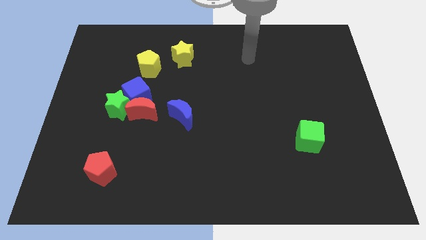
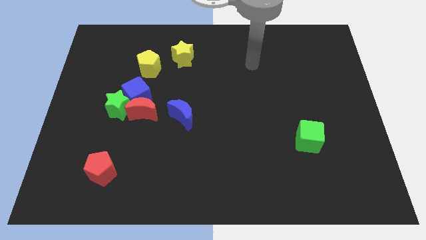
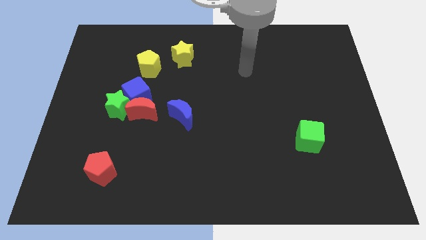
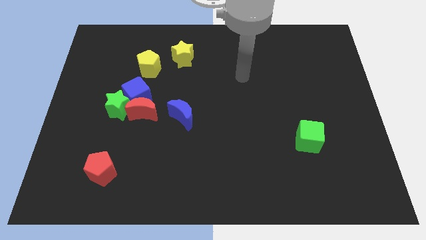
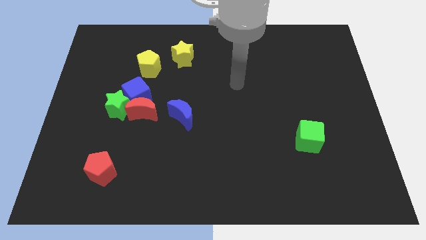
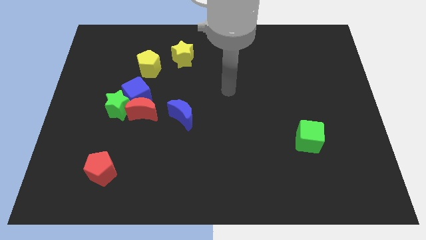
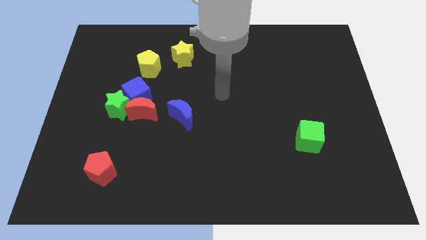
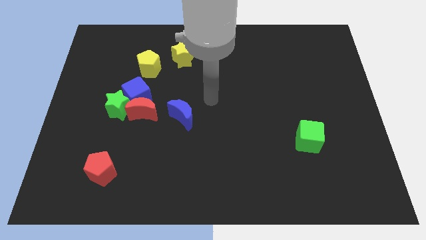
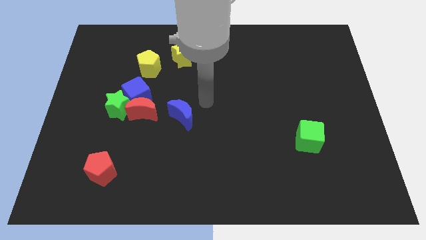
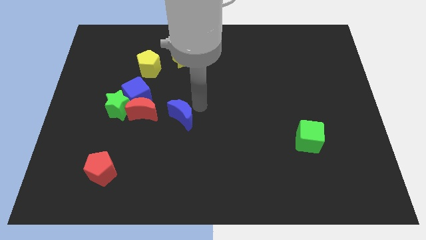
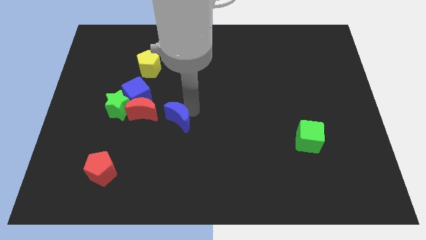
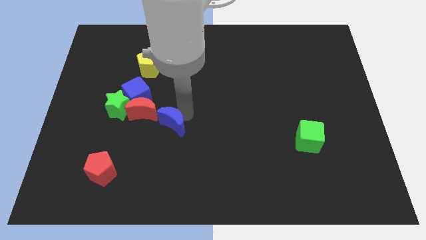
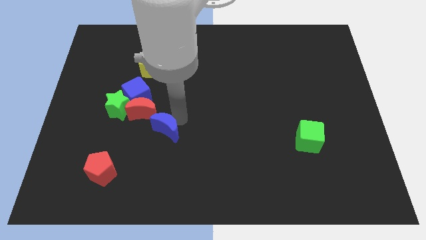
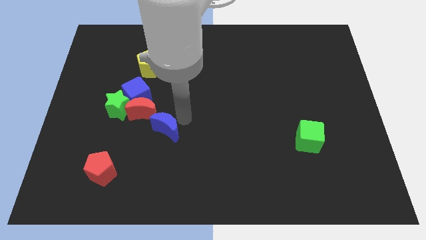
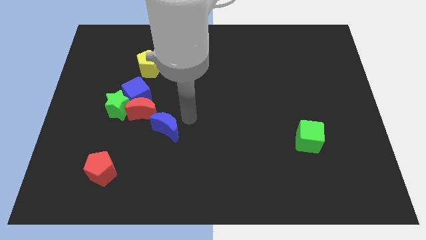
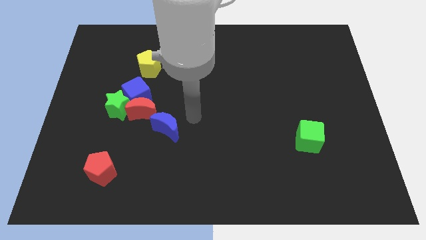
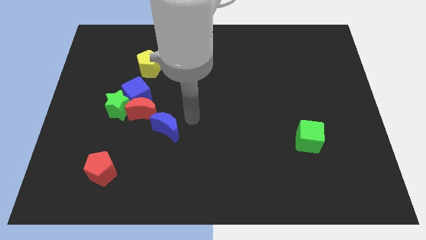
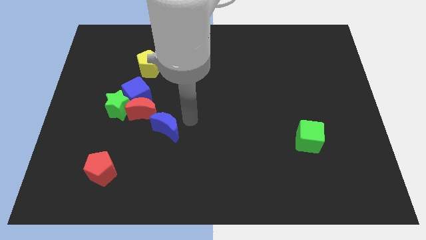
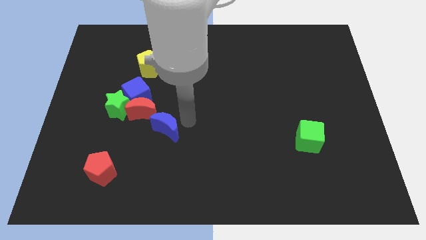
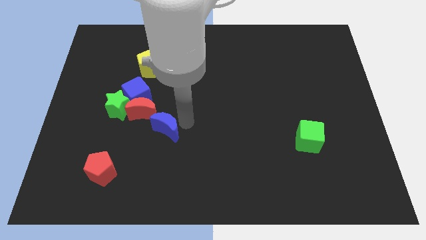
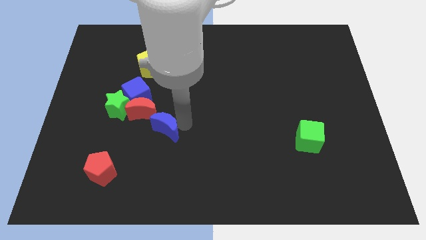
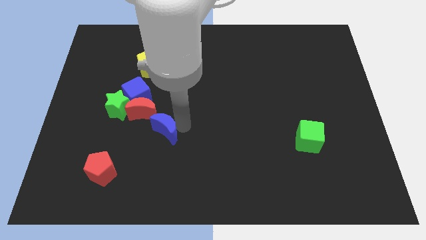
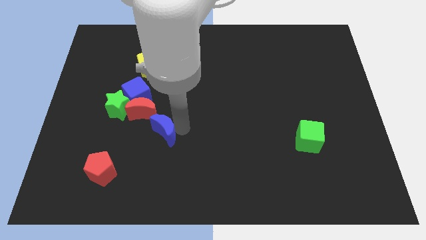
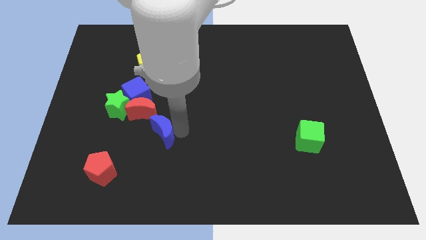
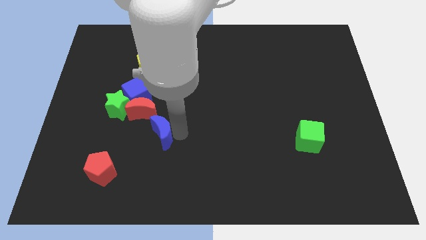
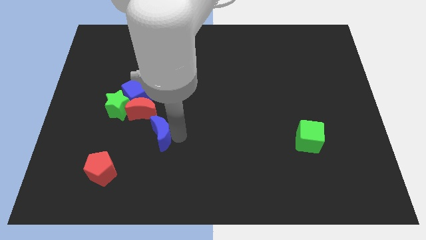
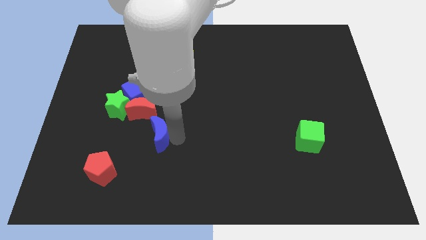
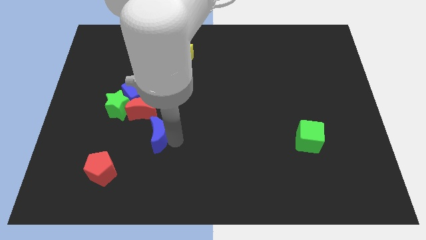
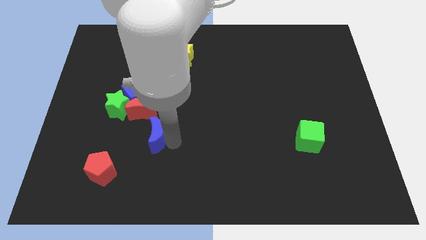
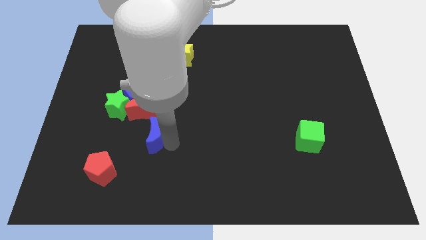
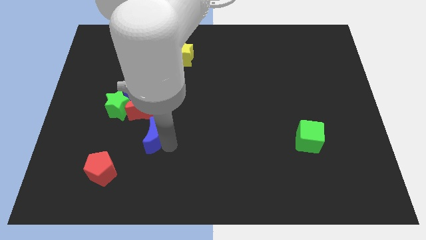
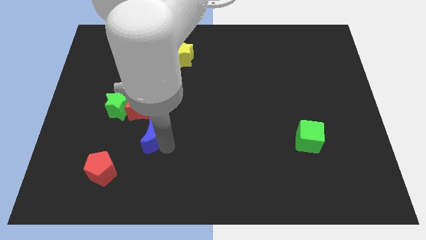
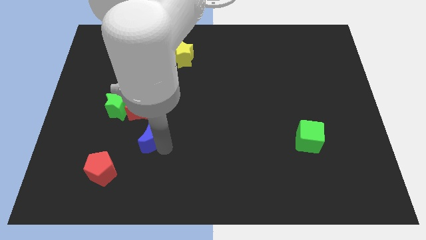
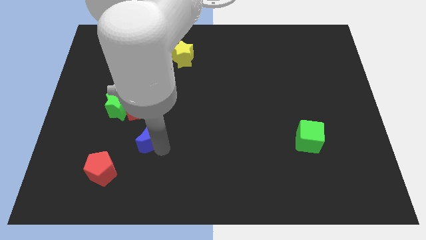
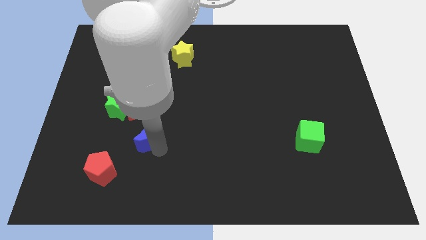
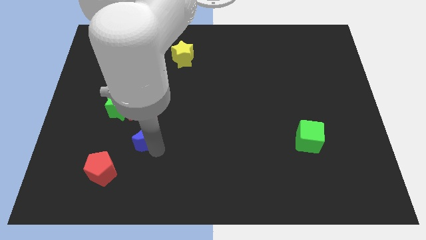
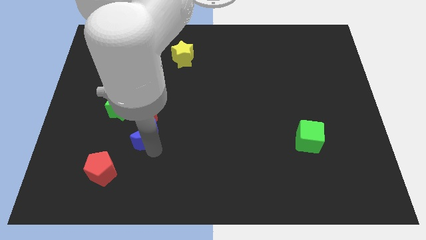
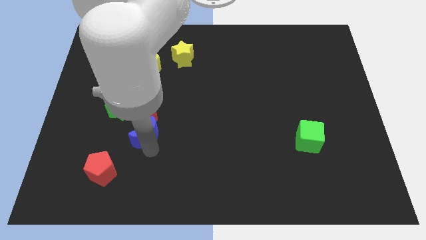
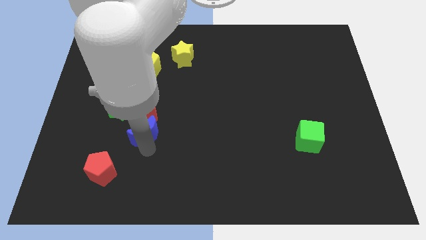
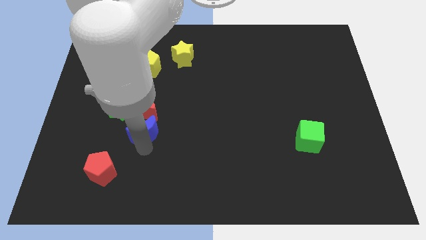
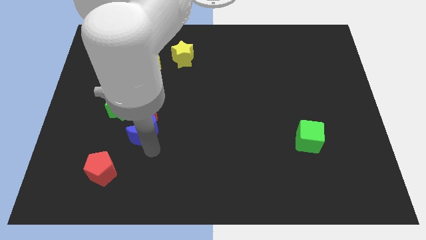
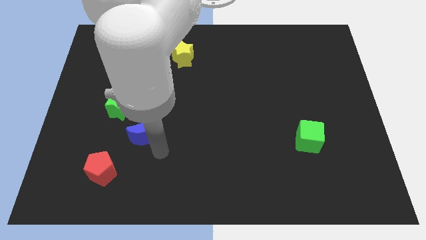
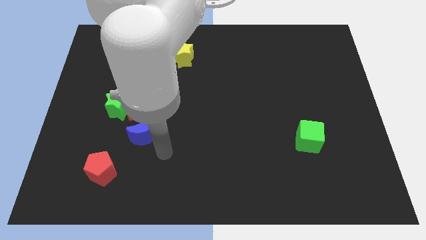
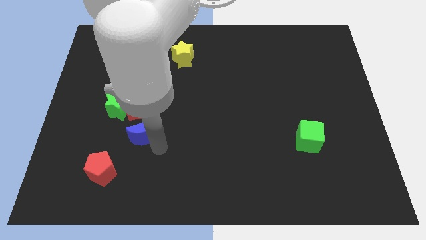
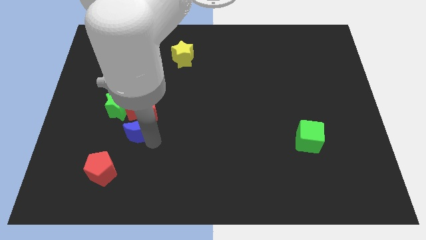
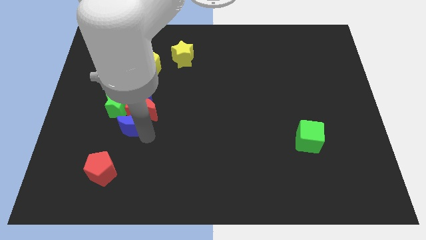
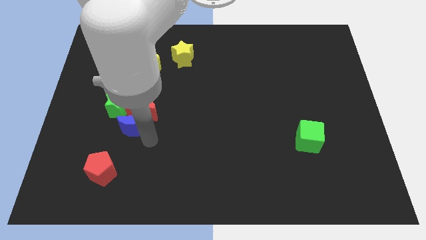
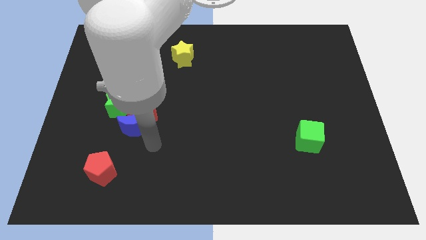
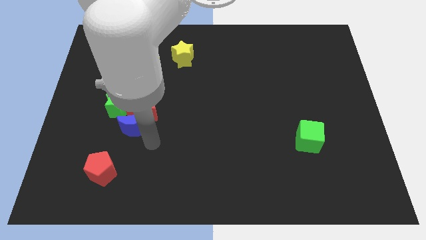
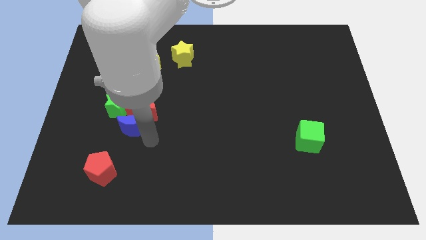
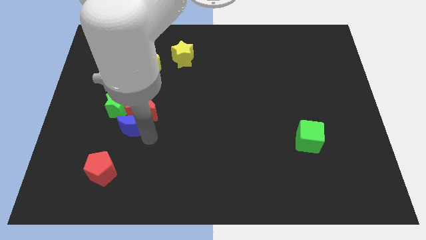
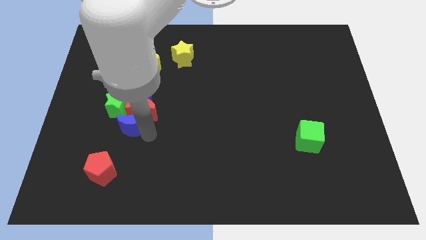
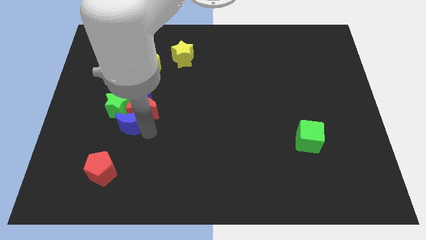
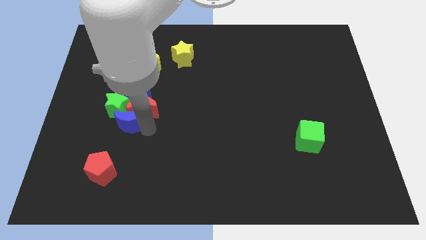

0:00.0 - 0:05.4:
slide the blue moon close to the green star

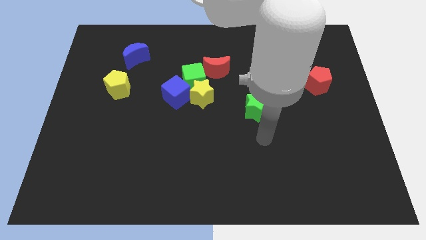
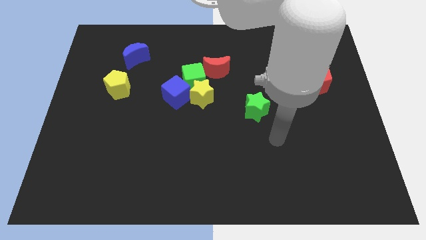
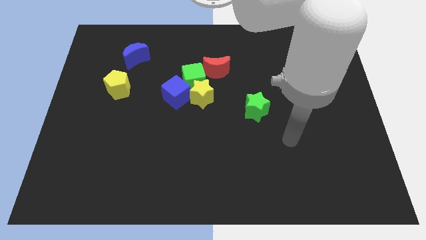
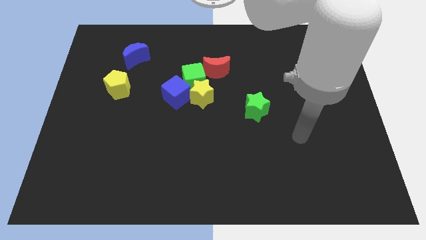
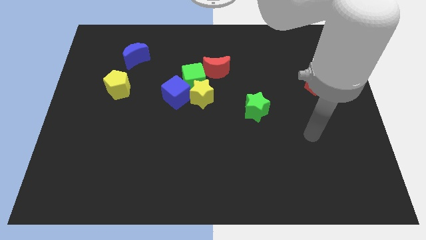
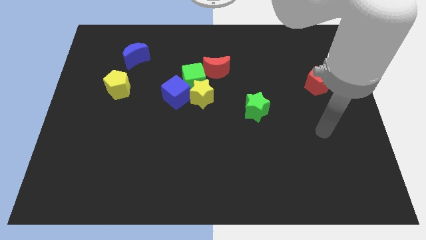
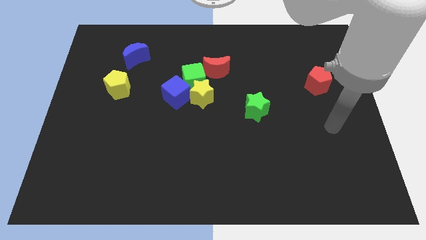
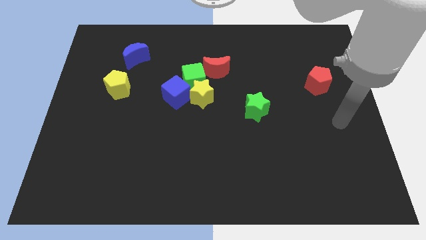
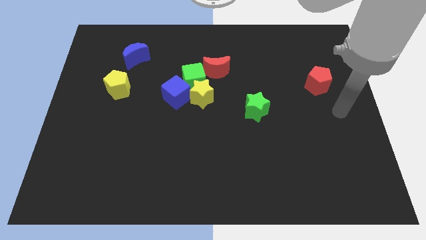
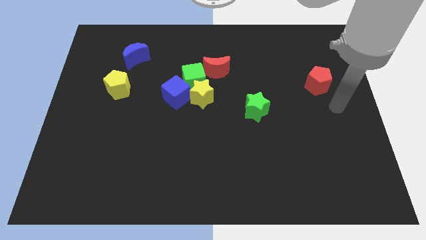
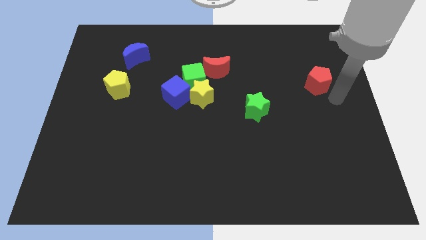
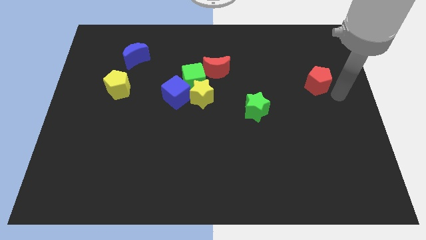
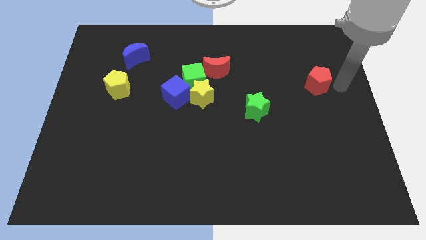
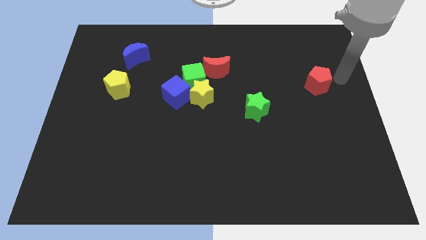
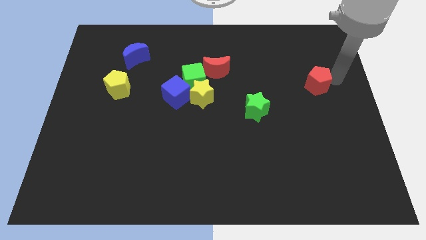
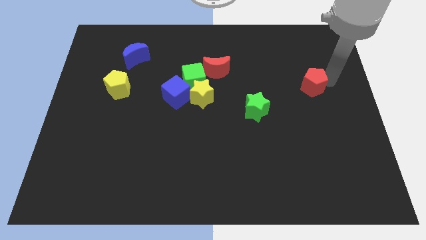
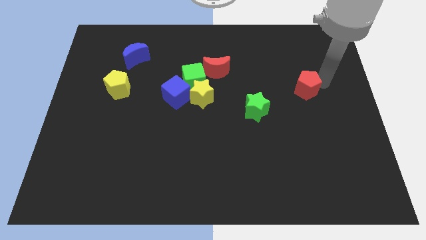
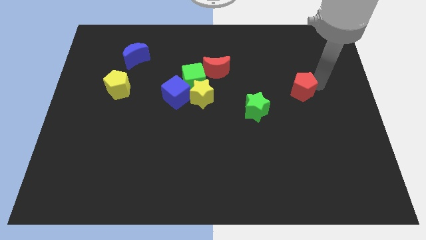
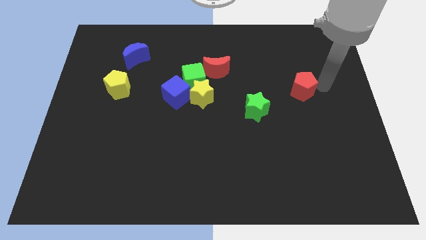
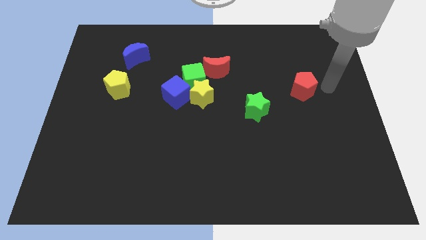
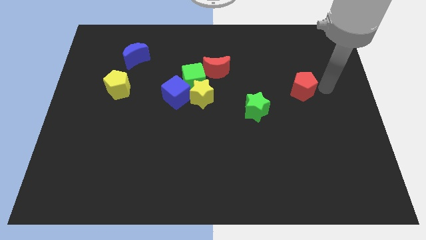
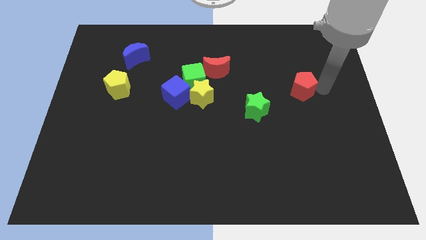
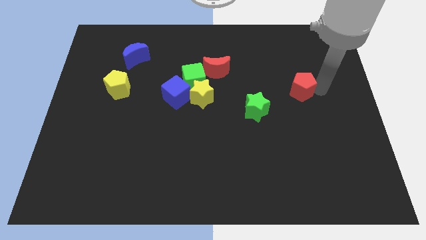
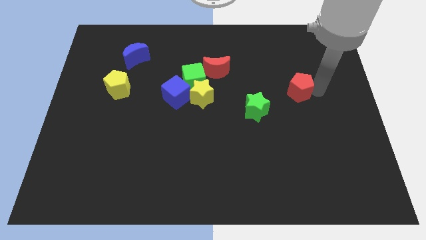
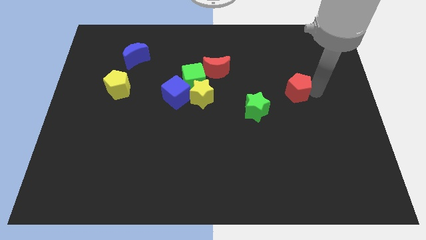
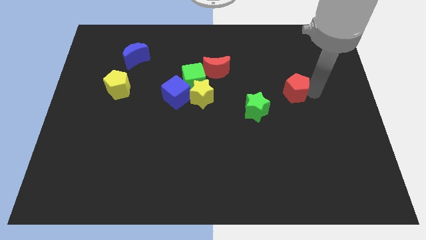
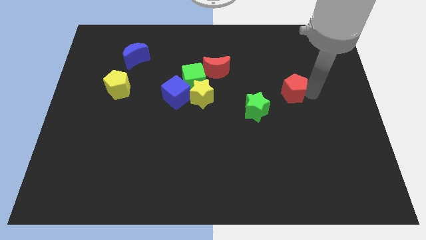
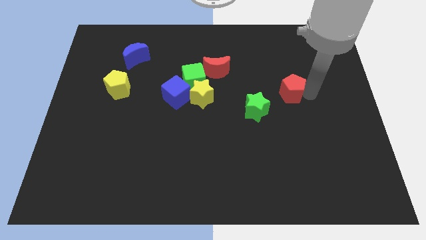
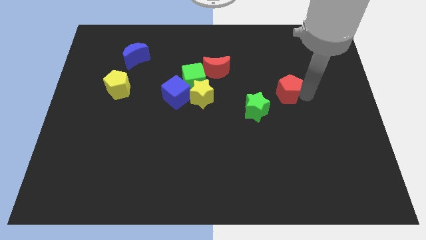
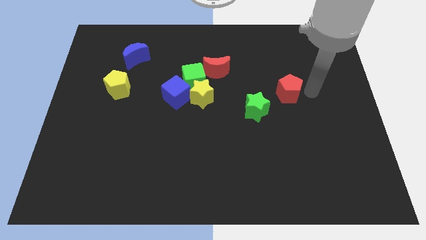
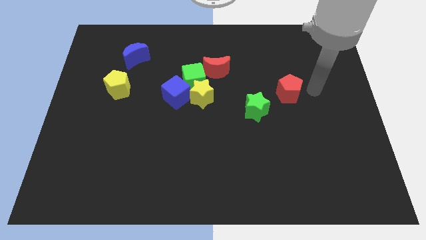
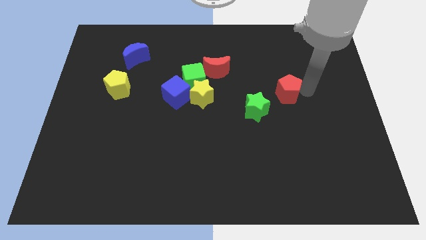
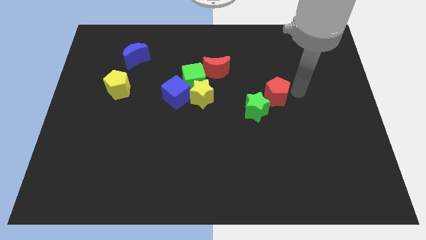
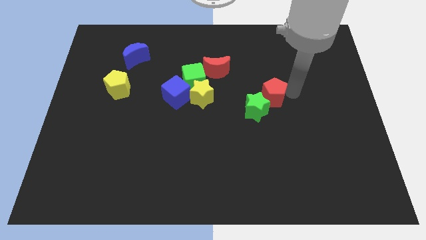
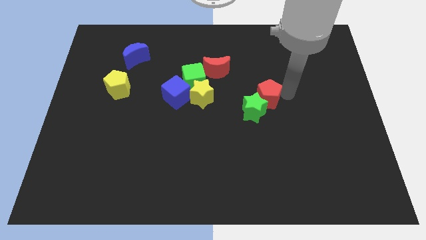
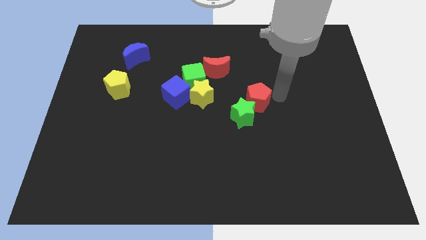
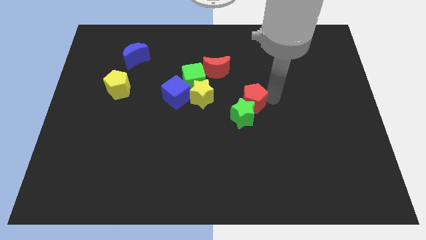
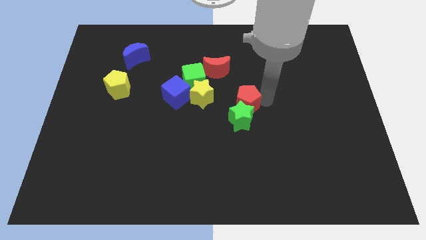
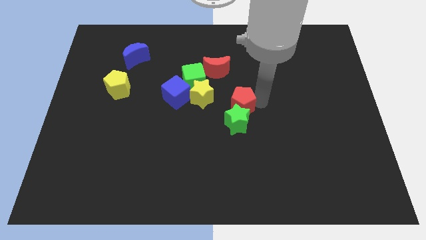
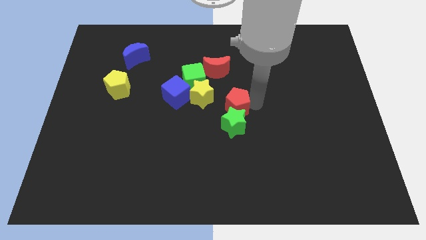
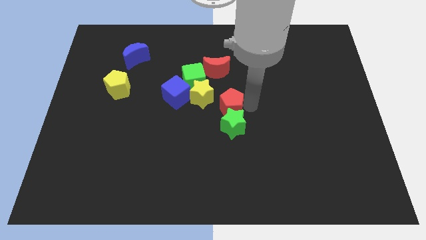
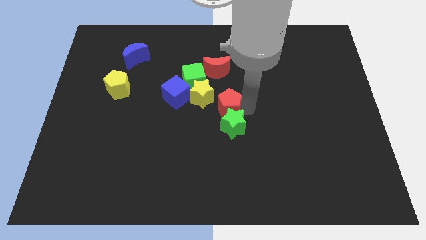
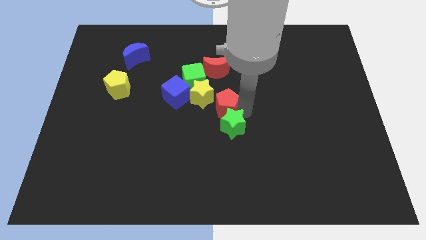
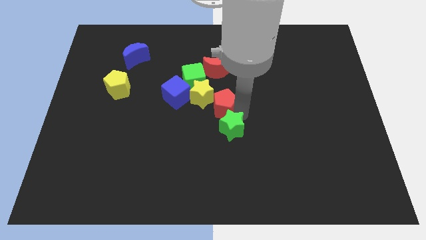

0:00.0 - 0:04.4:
put the red pentagon next to the yellow star
